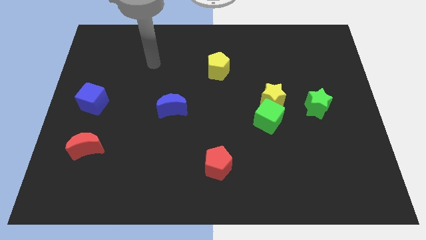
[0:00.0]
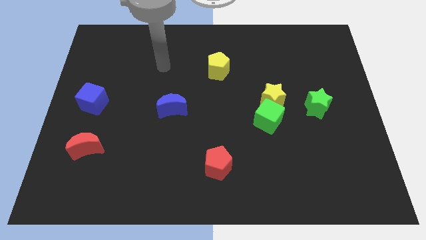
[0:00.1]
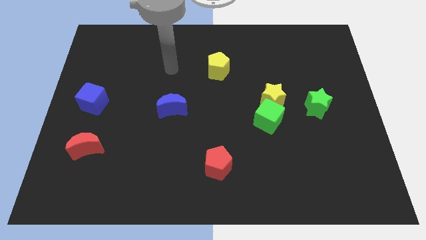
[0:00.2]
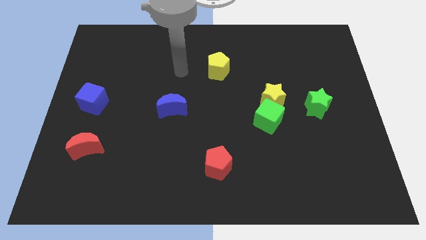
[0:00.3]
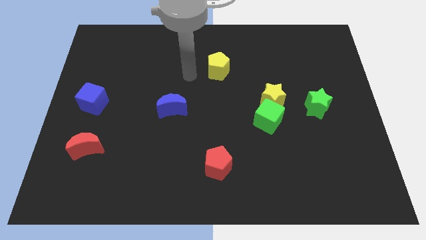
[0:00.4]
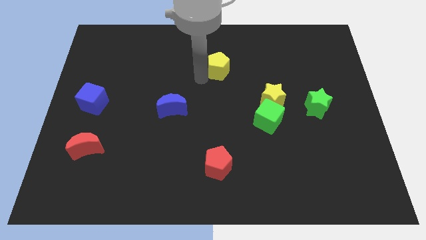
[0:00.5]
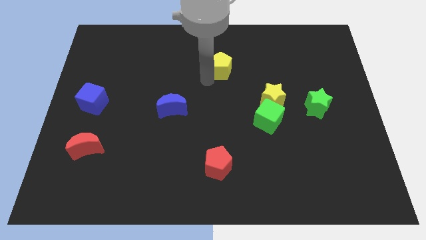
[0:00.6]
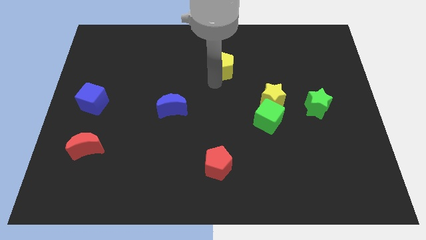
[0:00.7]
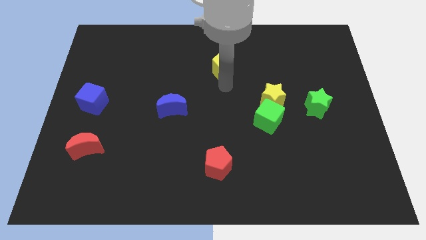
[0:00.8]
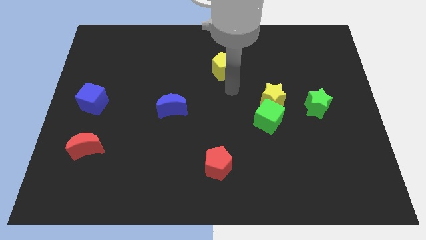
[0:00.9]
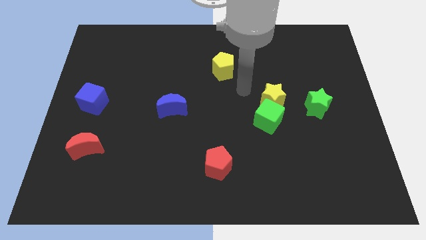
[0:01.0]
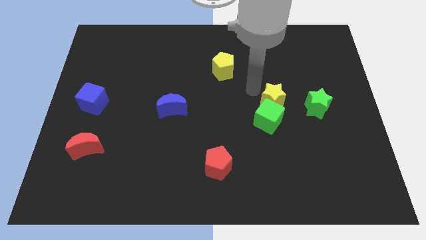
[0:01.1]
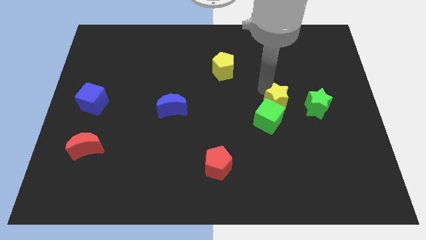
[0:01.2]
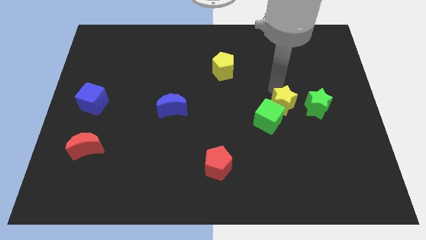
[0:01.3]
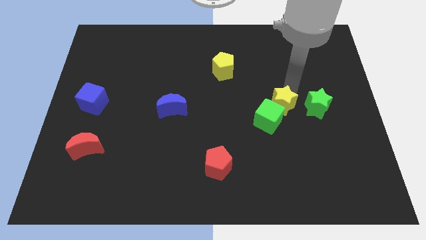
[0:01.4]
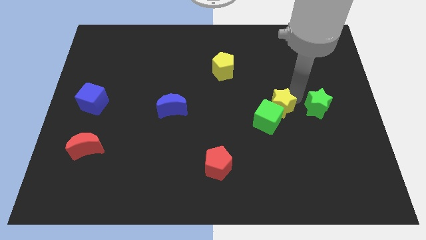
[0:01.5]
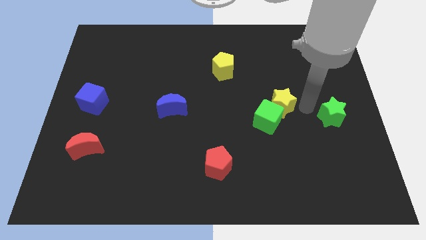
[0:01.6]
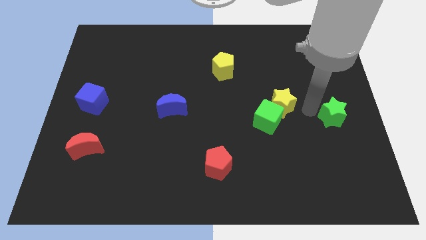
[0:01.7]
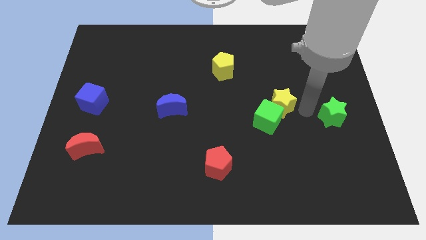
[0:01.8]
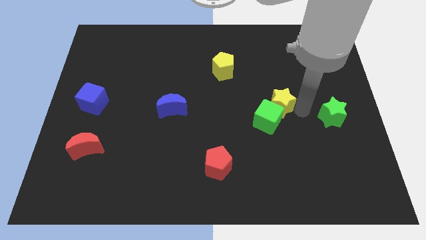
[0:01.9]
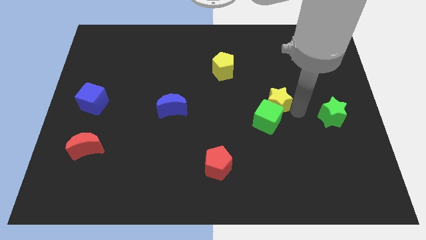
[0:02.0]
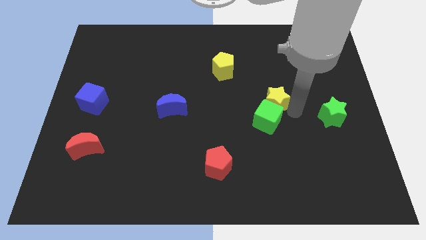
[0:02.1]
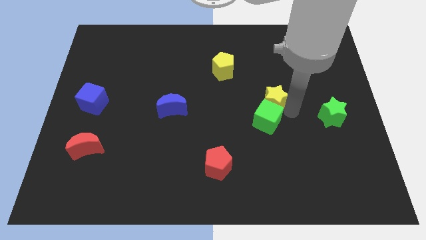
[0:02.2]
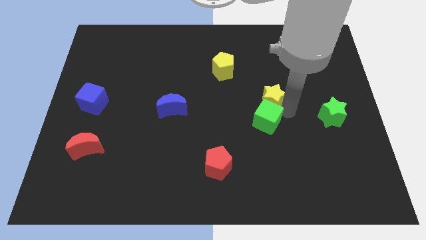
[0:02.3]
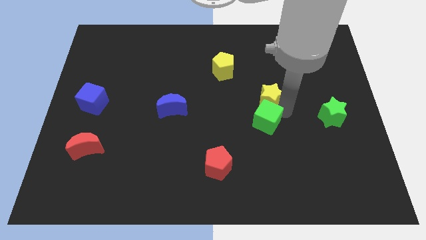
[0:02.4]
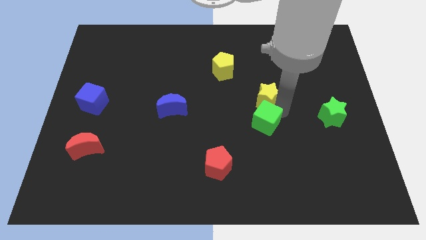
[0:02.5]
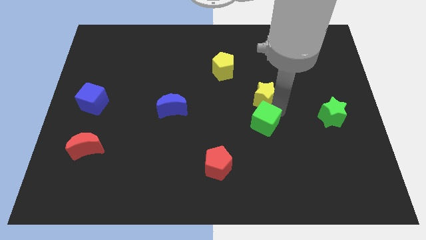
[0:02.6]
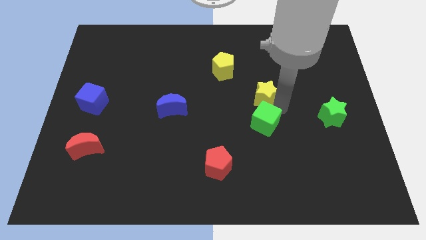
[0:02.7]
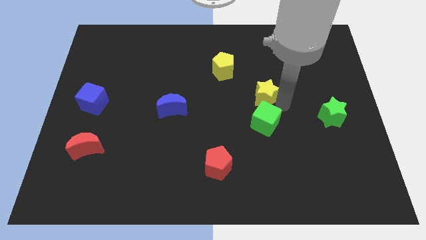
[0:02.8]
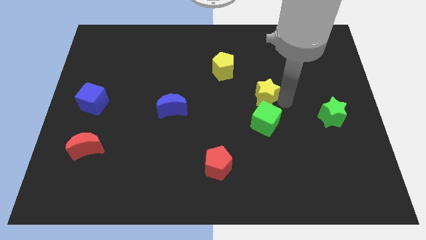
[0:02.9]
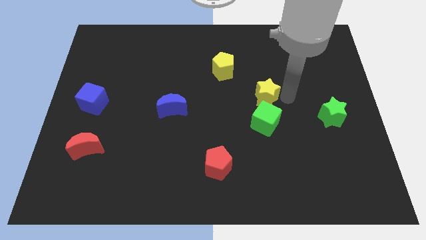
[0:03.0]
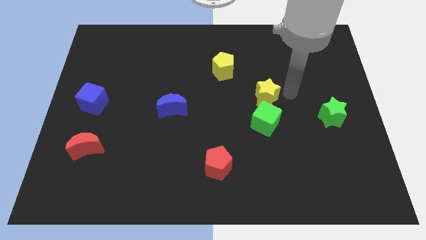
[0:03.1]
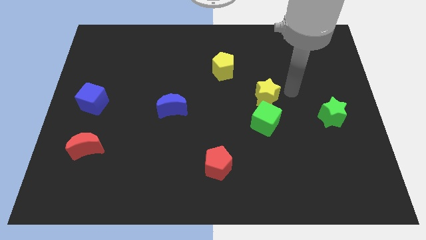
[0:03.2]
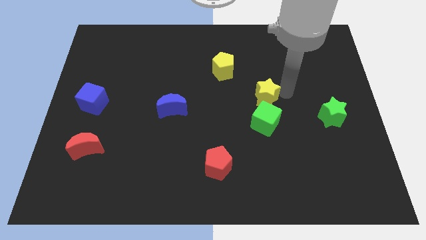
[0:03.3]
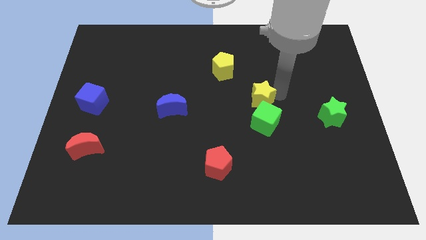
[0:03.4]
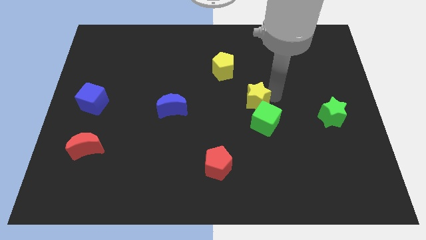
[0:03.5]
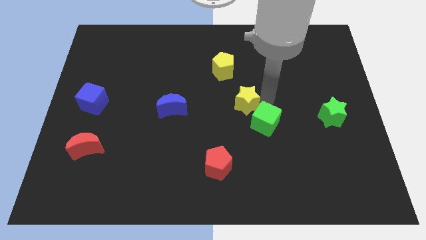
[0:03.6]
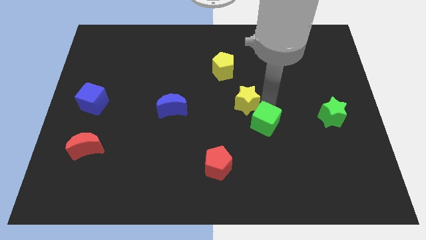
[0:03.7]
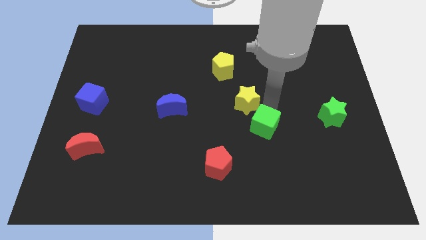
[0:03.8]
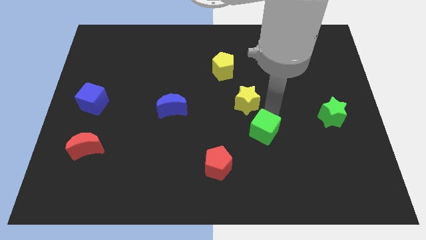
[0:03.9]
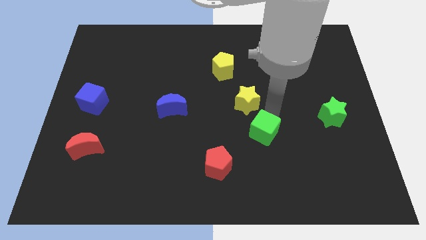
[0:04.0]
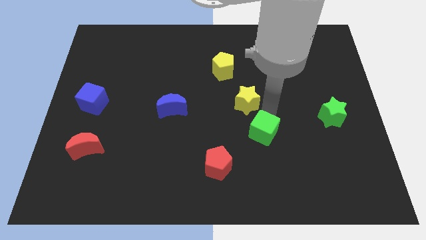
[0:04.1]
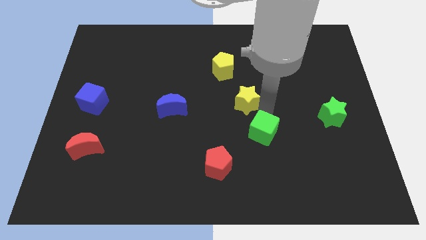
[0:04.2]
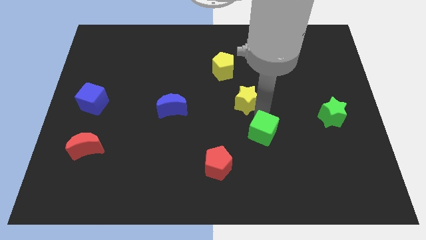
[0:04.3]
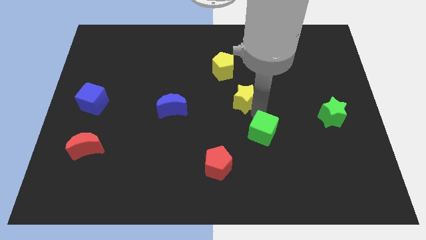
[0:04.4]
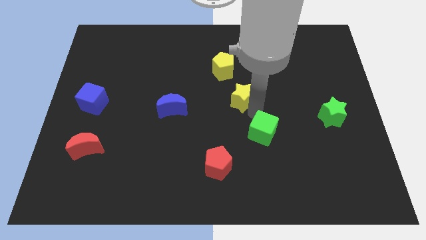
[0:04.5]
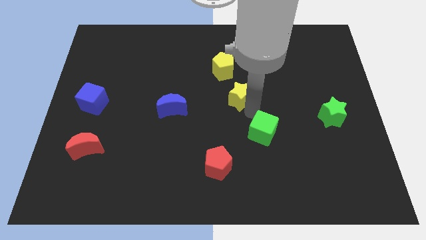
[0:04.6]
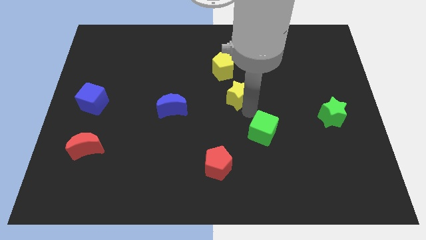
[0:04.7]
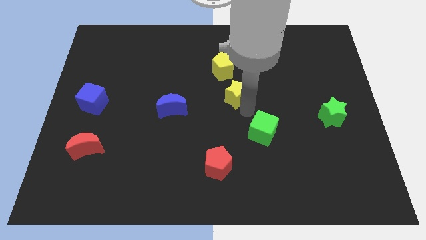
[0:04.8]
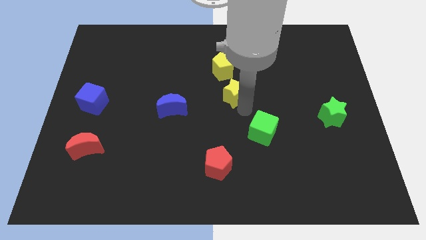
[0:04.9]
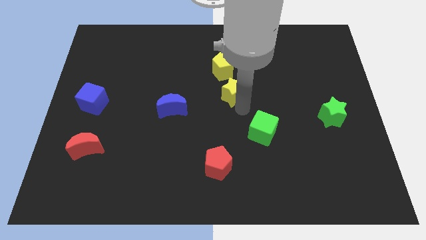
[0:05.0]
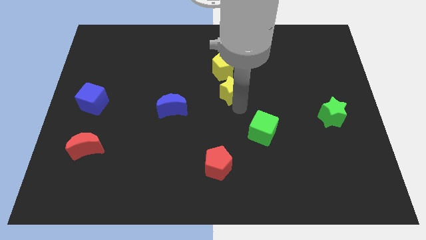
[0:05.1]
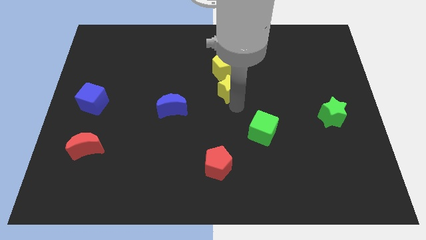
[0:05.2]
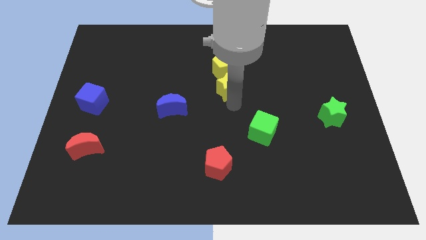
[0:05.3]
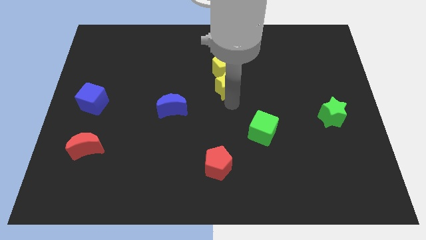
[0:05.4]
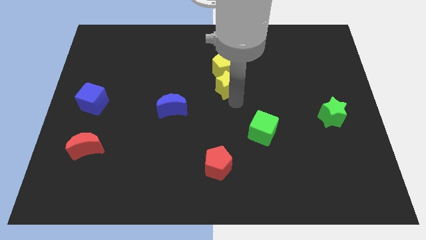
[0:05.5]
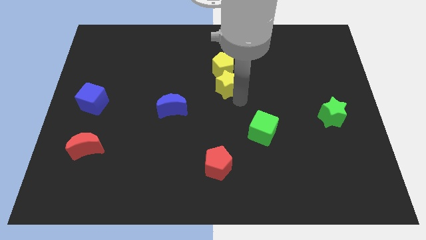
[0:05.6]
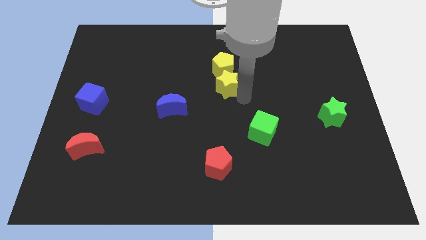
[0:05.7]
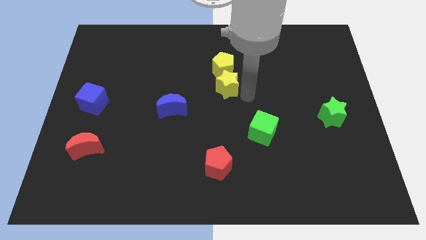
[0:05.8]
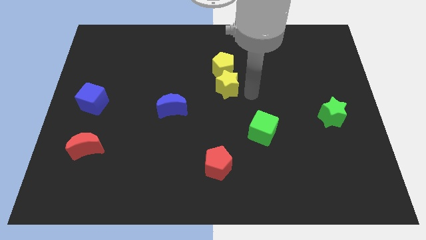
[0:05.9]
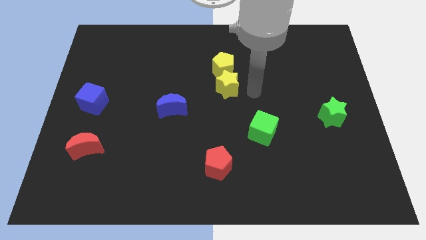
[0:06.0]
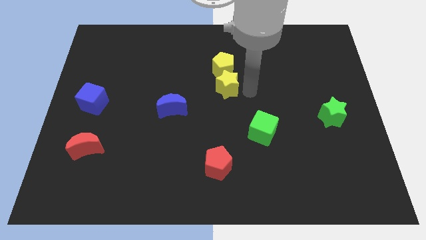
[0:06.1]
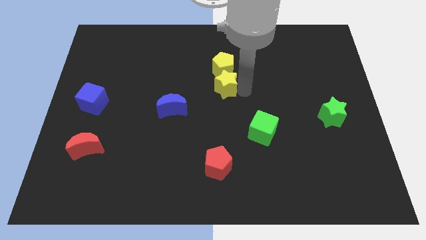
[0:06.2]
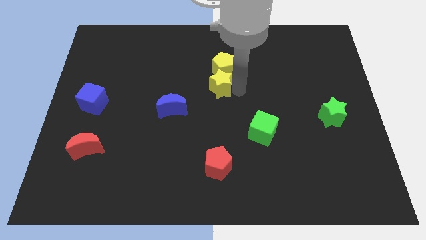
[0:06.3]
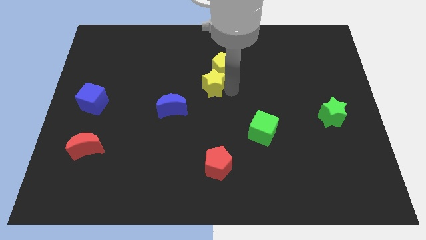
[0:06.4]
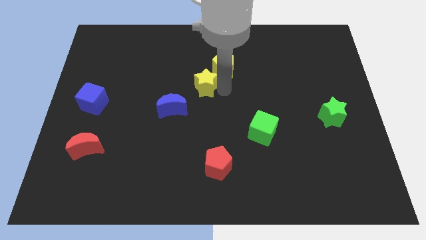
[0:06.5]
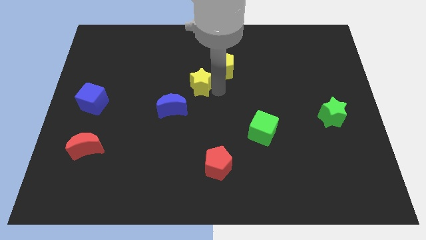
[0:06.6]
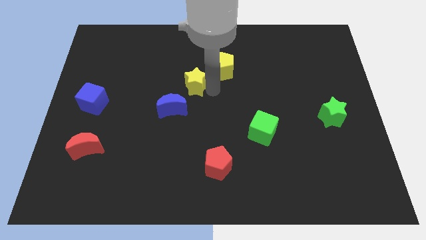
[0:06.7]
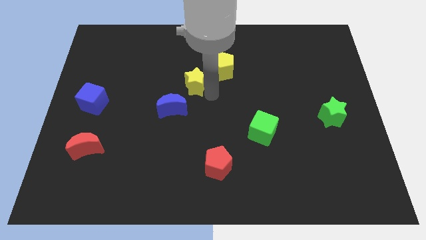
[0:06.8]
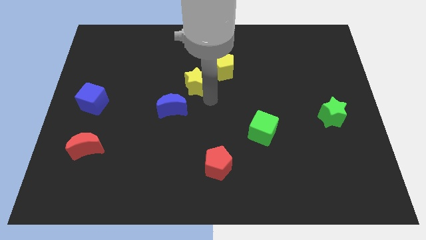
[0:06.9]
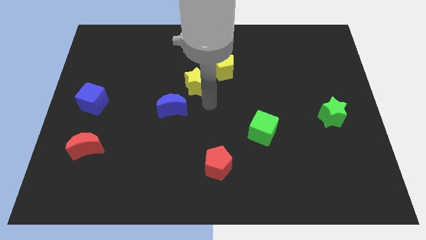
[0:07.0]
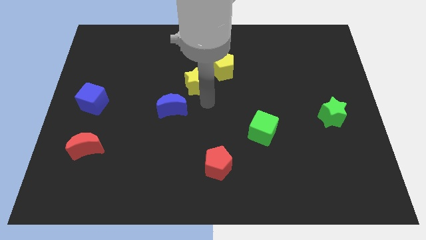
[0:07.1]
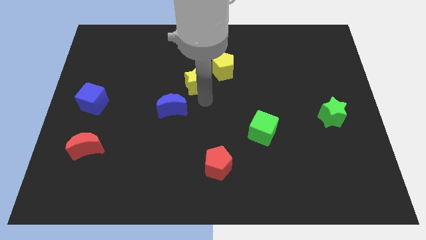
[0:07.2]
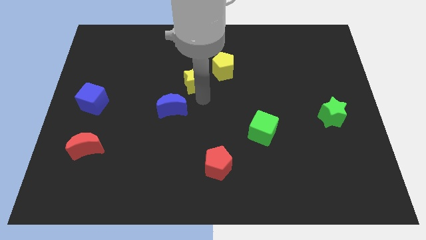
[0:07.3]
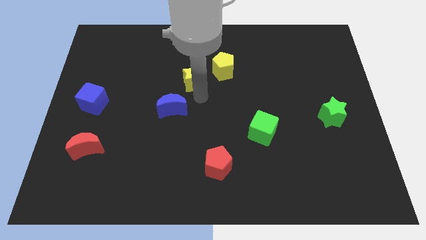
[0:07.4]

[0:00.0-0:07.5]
move the yellow star to the left of the yellow pentagon
